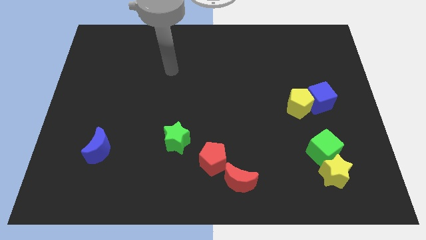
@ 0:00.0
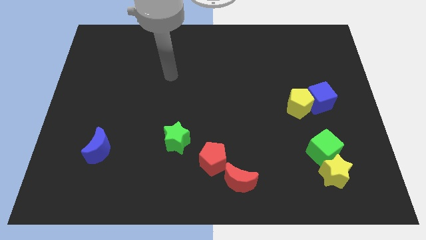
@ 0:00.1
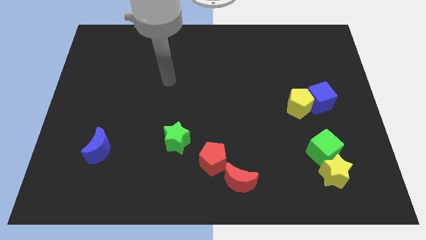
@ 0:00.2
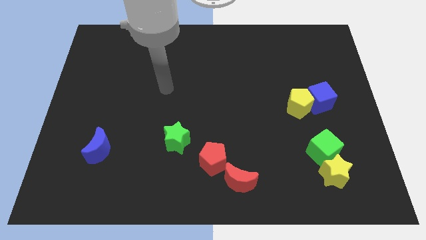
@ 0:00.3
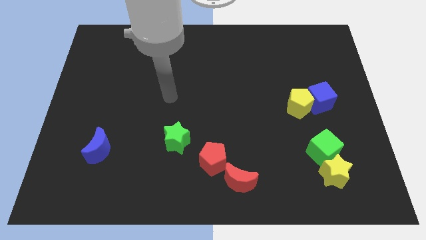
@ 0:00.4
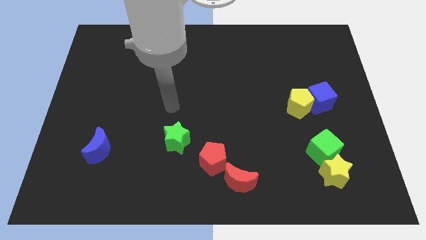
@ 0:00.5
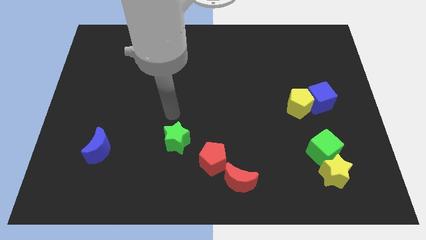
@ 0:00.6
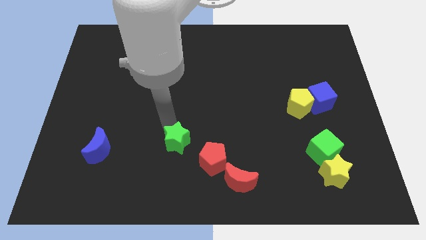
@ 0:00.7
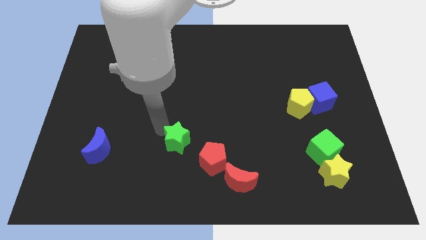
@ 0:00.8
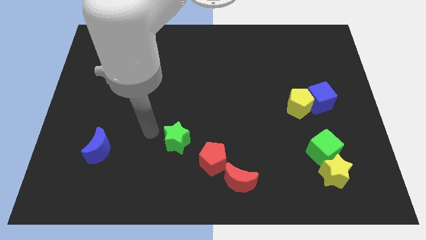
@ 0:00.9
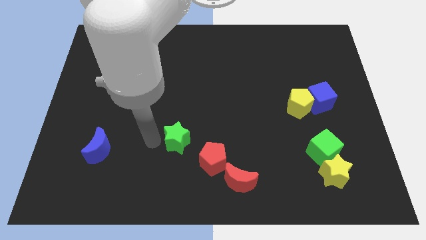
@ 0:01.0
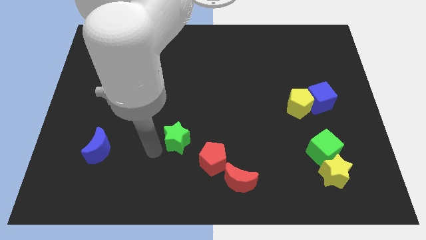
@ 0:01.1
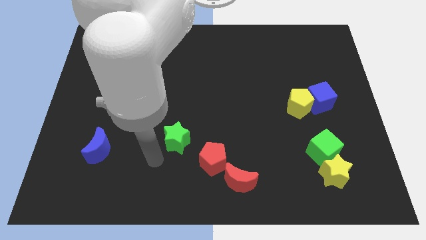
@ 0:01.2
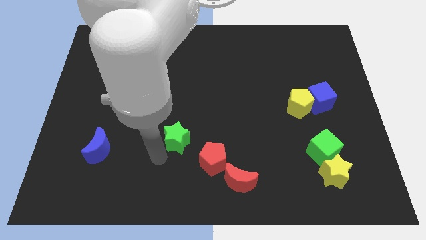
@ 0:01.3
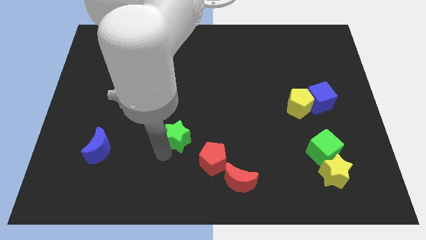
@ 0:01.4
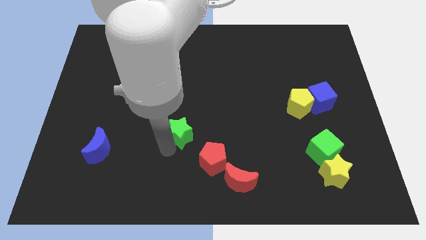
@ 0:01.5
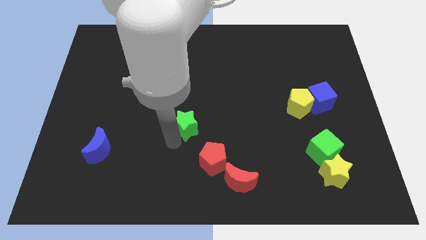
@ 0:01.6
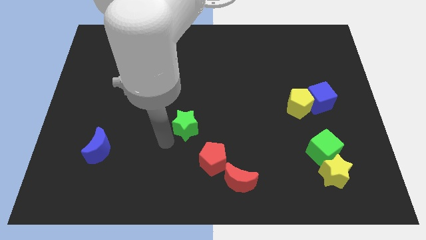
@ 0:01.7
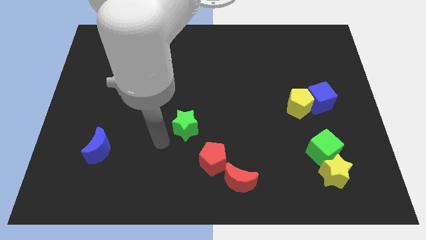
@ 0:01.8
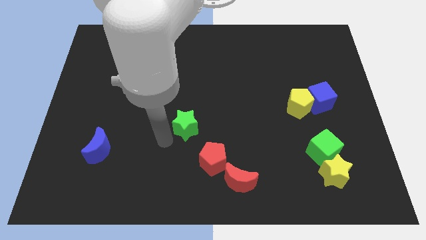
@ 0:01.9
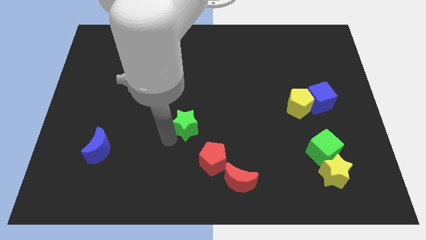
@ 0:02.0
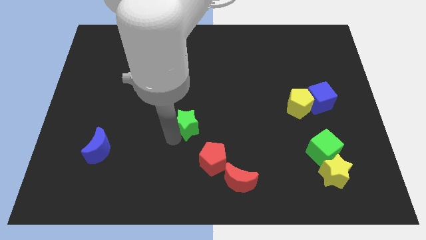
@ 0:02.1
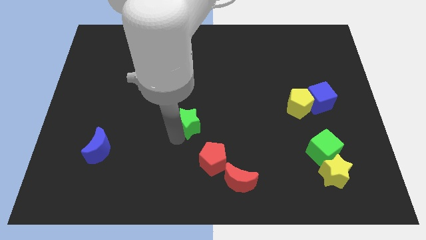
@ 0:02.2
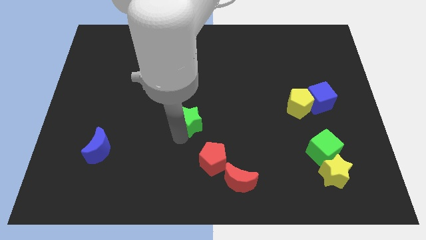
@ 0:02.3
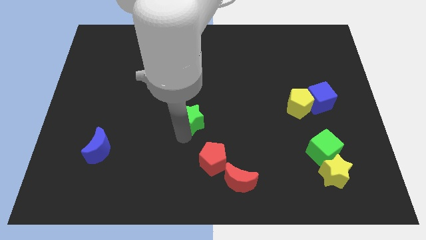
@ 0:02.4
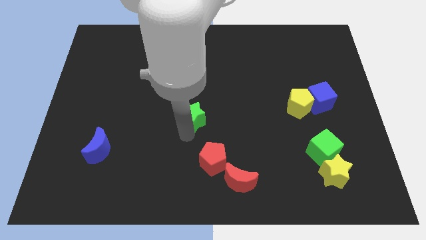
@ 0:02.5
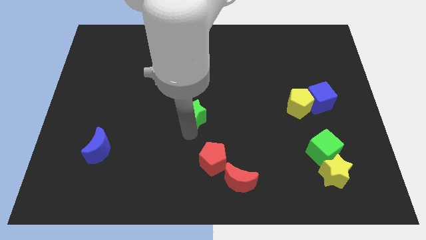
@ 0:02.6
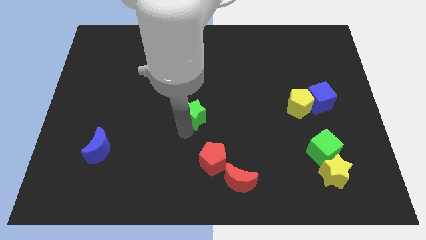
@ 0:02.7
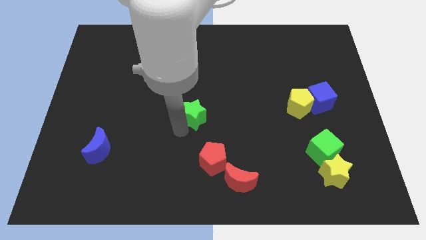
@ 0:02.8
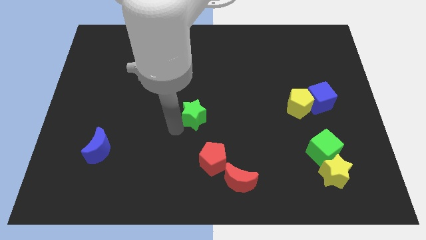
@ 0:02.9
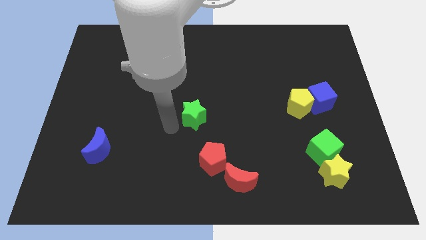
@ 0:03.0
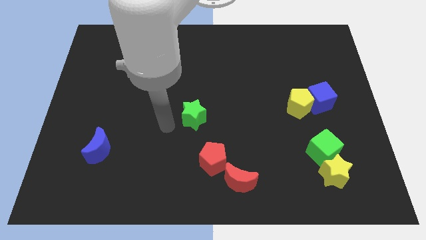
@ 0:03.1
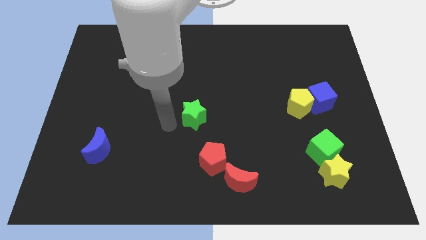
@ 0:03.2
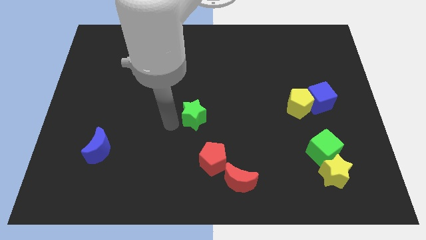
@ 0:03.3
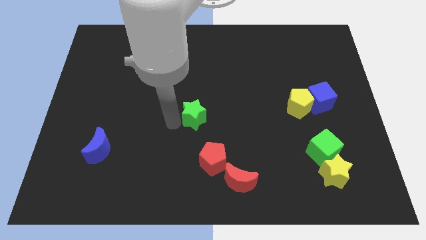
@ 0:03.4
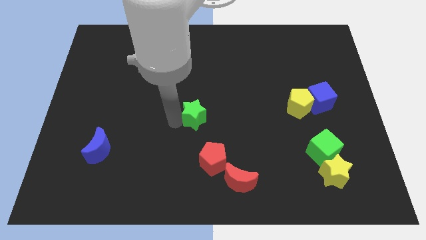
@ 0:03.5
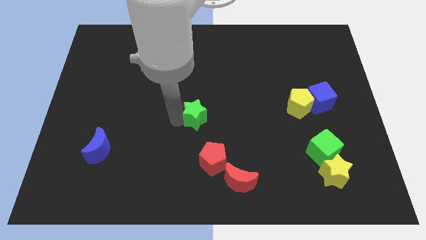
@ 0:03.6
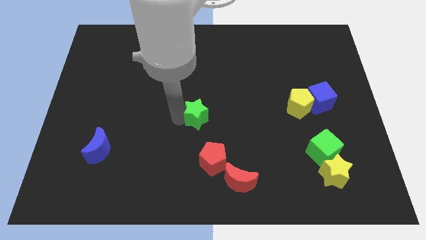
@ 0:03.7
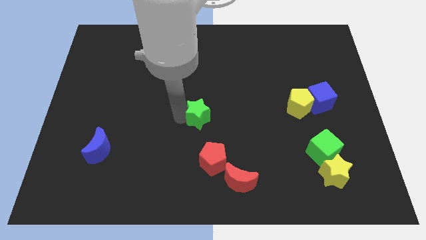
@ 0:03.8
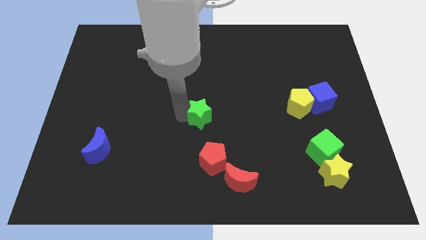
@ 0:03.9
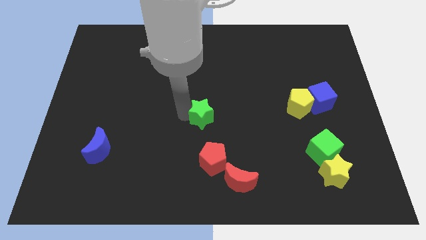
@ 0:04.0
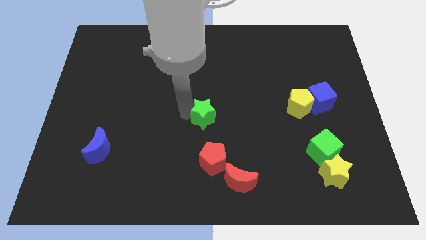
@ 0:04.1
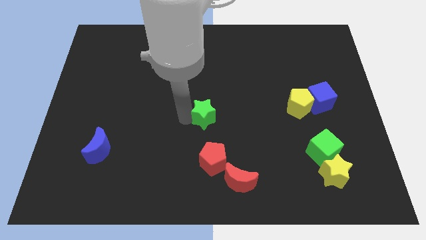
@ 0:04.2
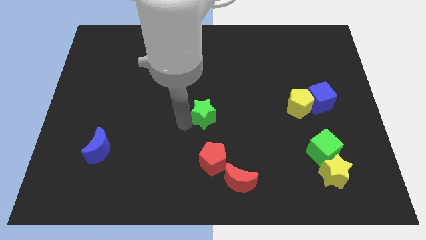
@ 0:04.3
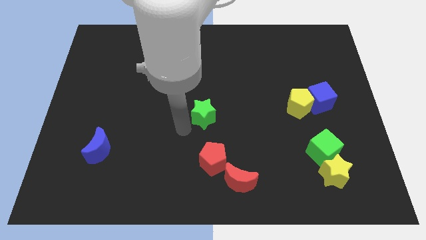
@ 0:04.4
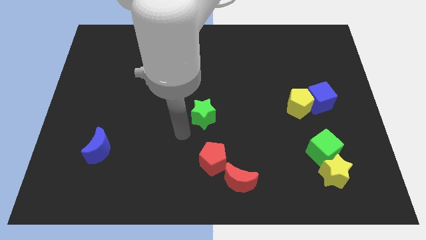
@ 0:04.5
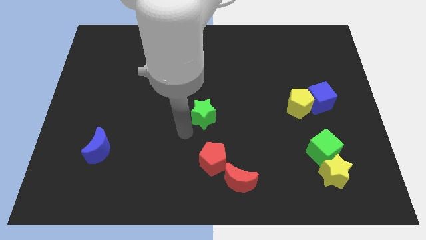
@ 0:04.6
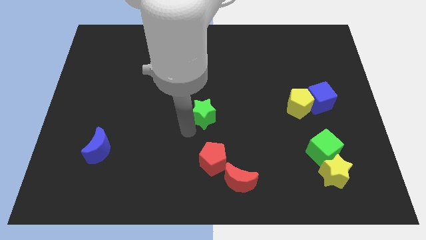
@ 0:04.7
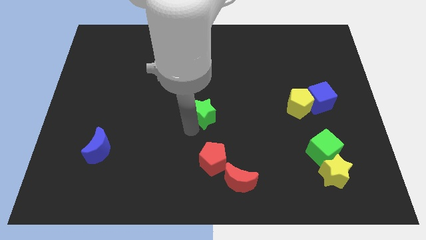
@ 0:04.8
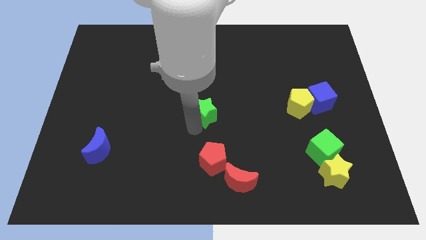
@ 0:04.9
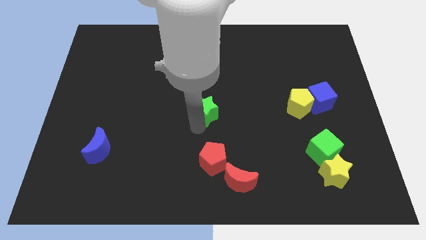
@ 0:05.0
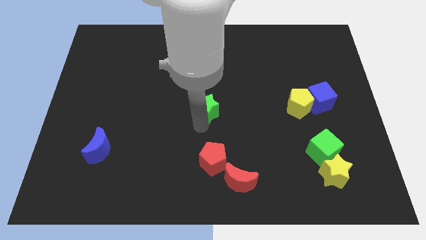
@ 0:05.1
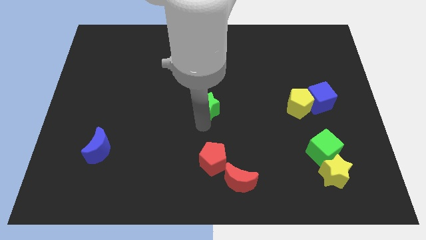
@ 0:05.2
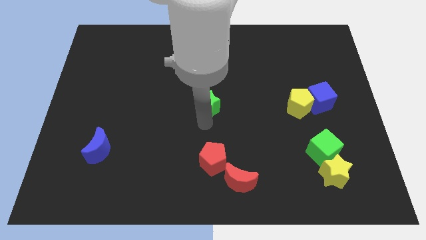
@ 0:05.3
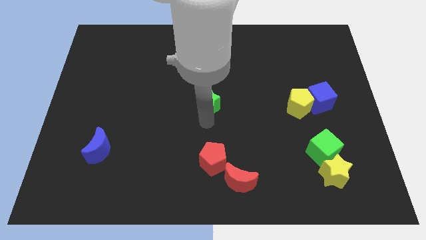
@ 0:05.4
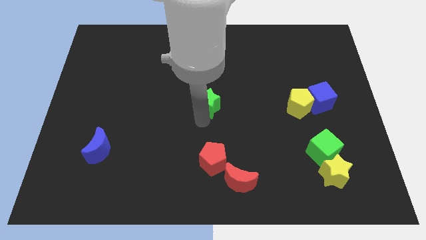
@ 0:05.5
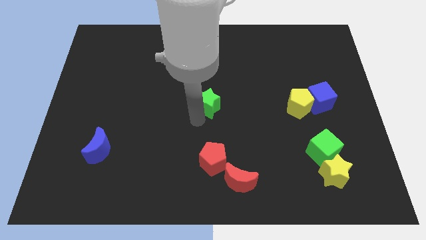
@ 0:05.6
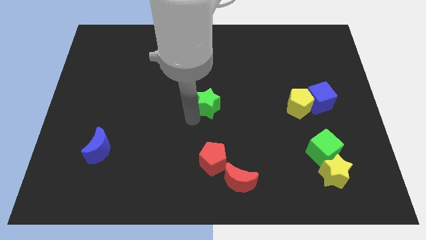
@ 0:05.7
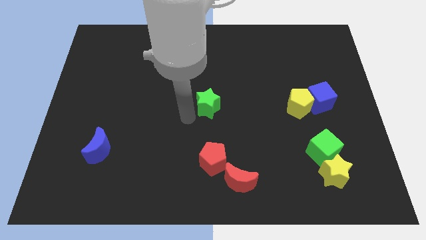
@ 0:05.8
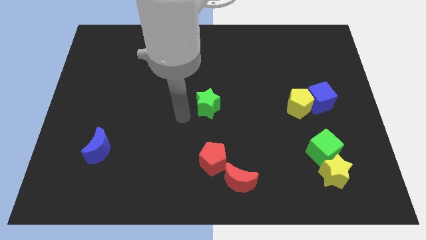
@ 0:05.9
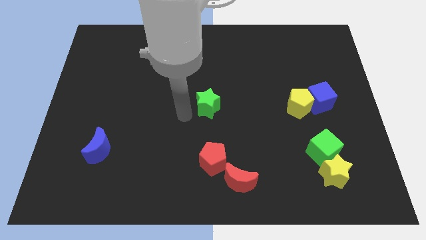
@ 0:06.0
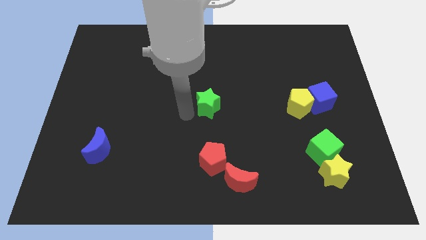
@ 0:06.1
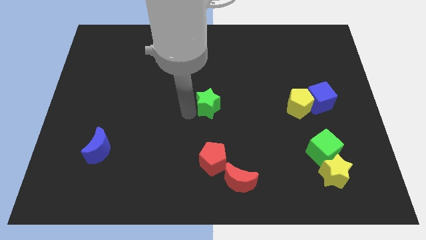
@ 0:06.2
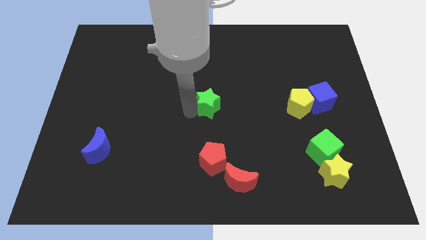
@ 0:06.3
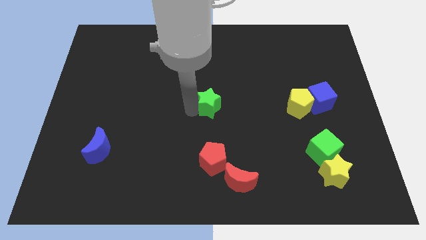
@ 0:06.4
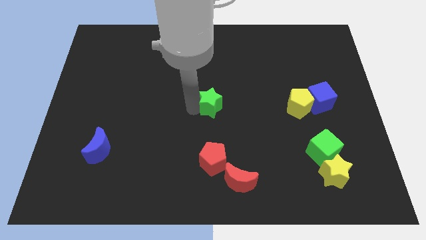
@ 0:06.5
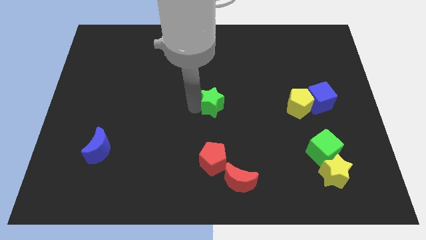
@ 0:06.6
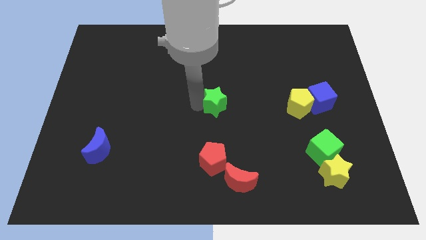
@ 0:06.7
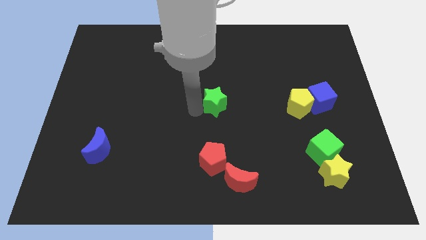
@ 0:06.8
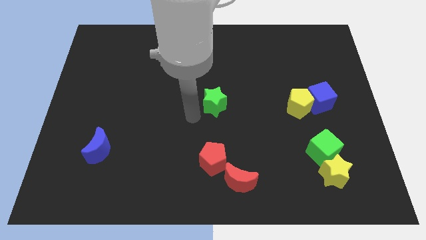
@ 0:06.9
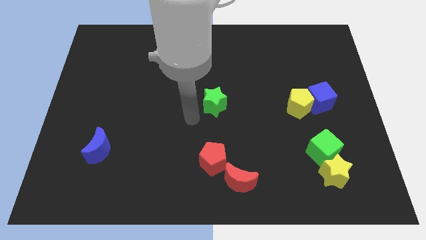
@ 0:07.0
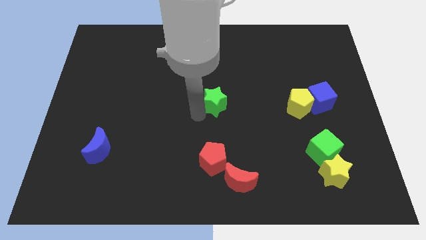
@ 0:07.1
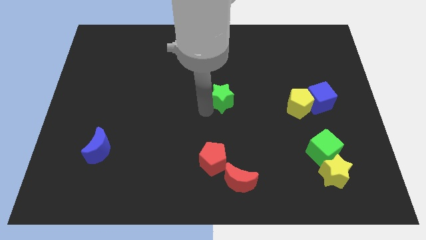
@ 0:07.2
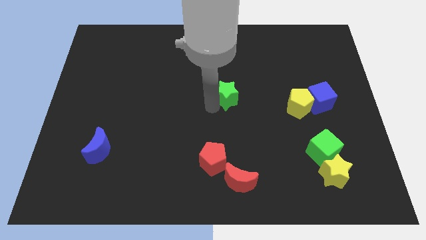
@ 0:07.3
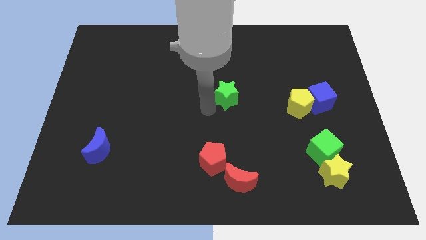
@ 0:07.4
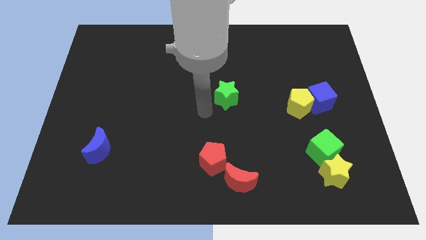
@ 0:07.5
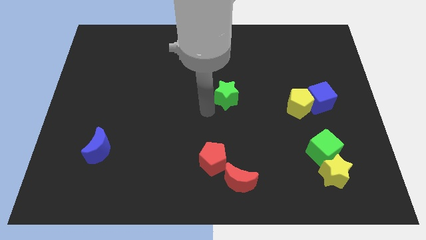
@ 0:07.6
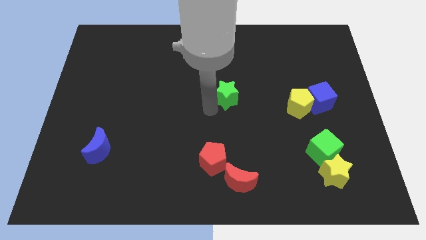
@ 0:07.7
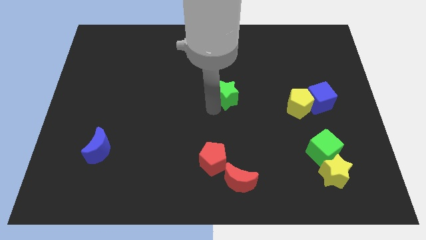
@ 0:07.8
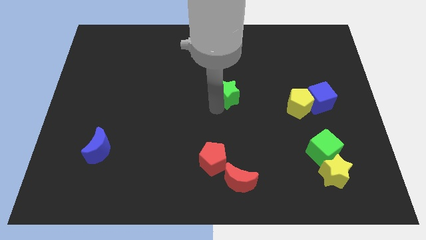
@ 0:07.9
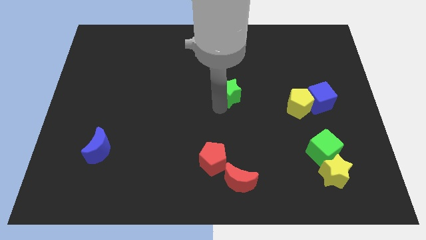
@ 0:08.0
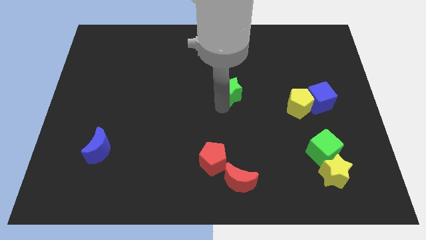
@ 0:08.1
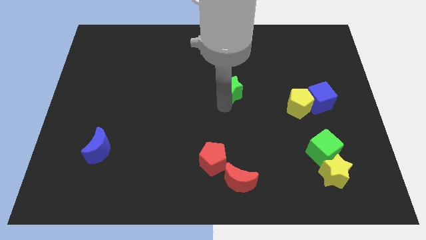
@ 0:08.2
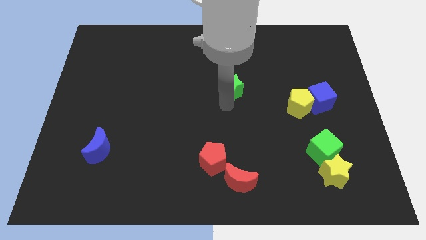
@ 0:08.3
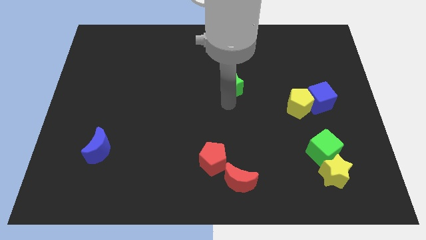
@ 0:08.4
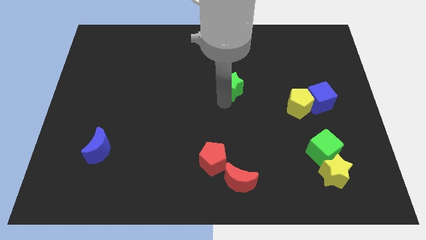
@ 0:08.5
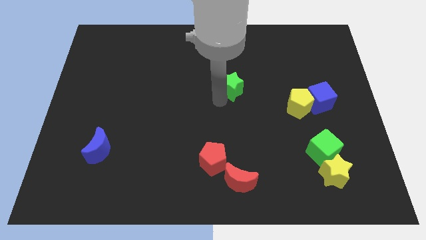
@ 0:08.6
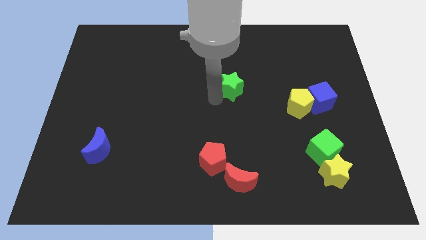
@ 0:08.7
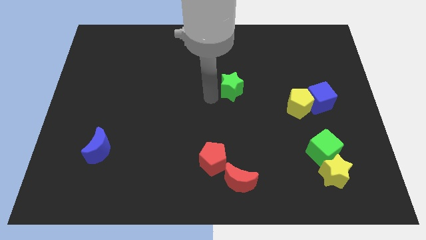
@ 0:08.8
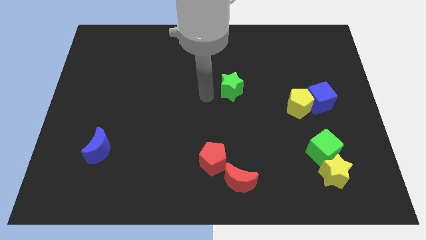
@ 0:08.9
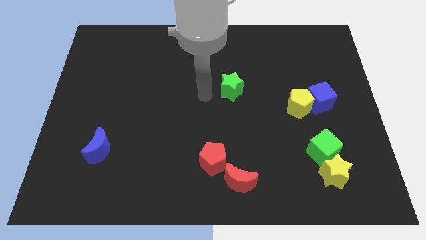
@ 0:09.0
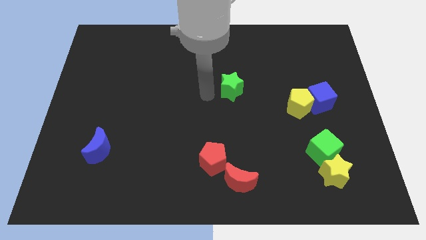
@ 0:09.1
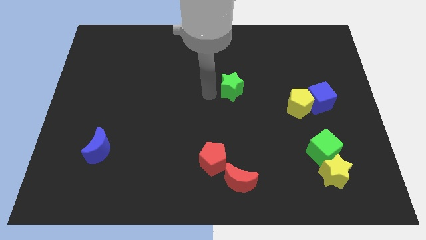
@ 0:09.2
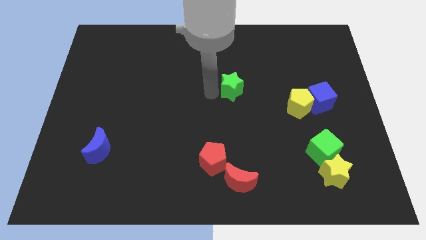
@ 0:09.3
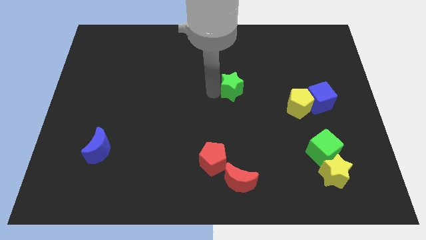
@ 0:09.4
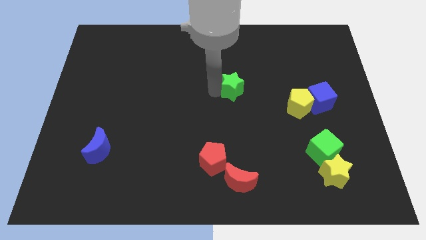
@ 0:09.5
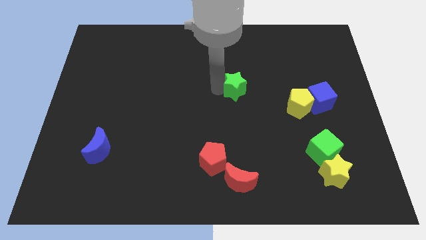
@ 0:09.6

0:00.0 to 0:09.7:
slide the green star upwards and then to the right
